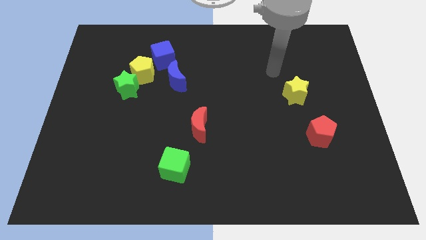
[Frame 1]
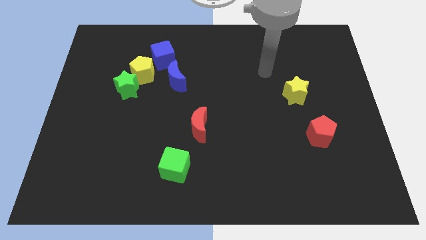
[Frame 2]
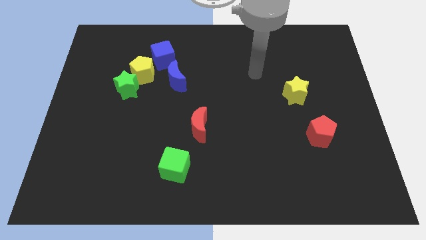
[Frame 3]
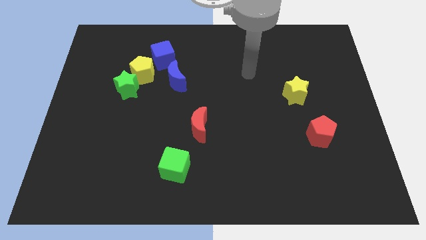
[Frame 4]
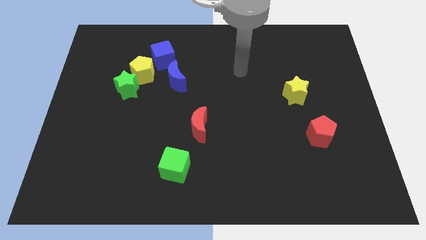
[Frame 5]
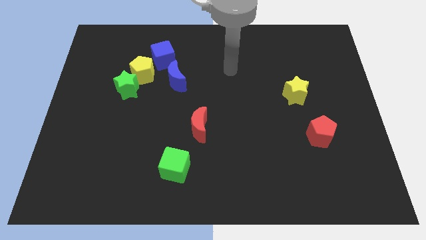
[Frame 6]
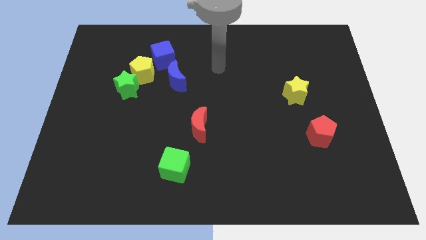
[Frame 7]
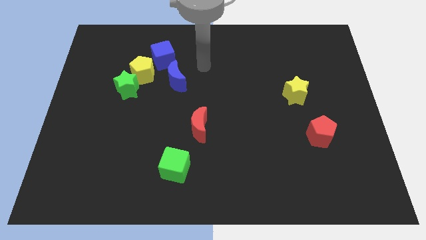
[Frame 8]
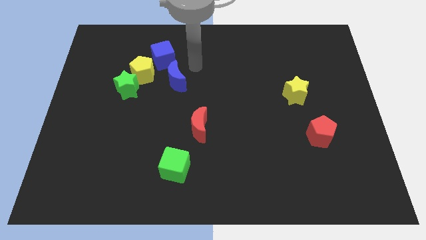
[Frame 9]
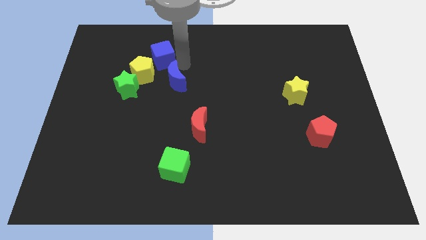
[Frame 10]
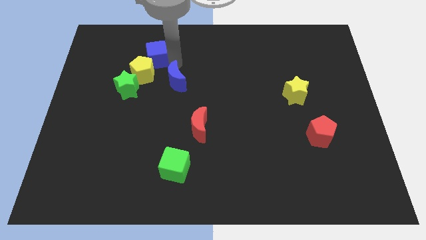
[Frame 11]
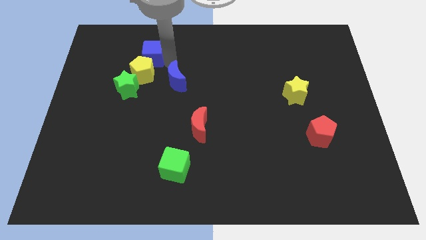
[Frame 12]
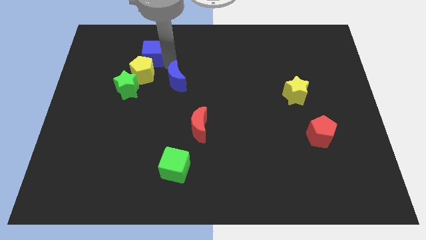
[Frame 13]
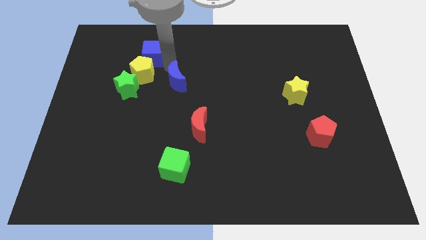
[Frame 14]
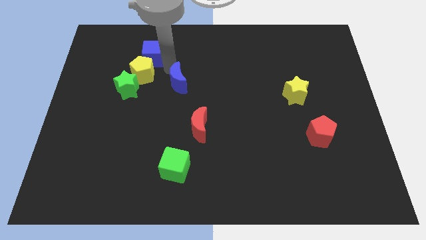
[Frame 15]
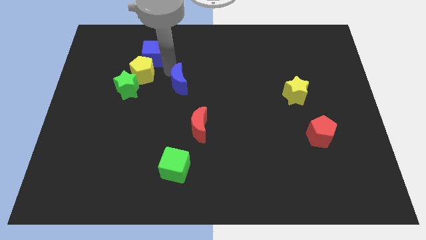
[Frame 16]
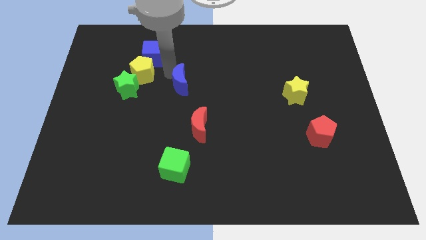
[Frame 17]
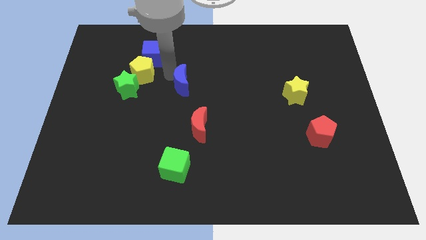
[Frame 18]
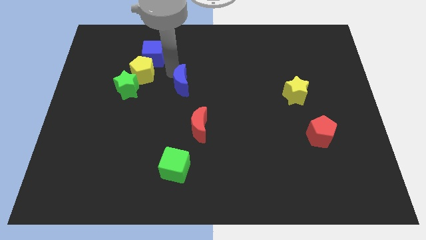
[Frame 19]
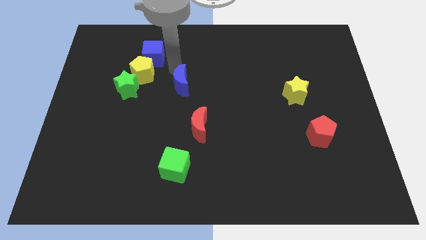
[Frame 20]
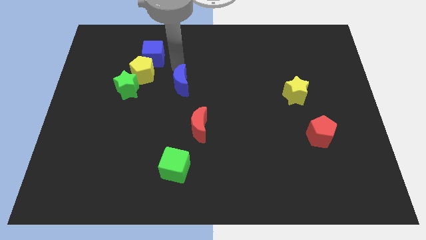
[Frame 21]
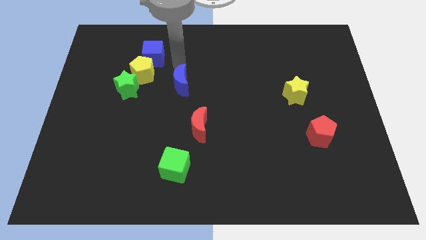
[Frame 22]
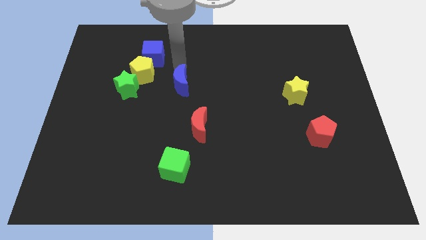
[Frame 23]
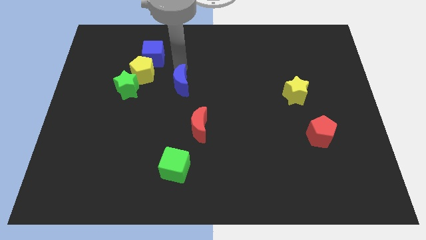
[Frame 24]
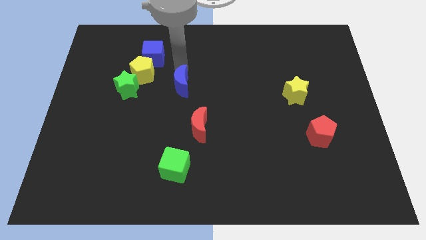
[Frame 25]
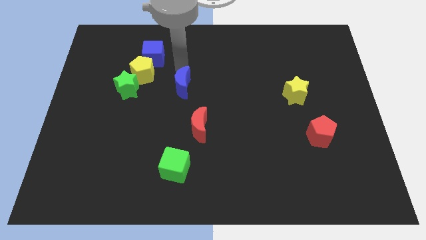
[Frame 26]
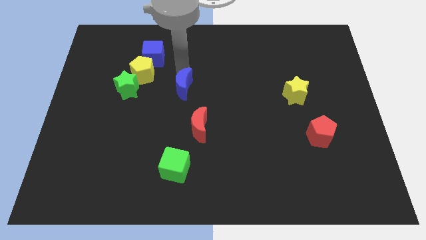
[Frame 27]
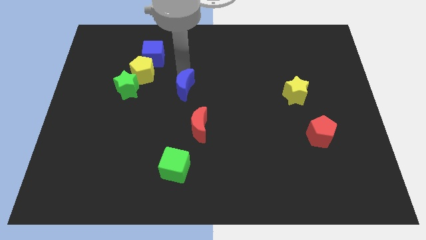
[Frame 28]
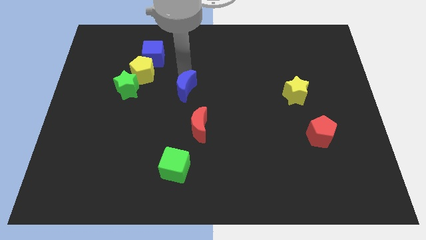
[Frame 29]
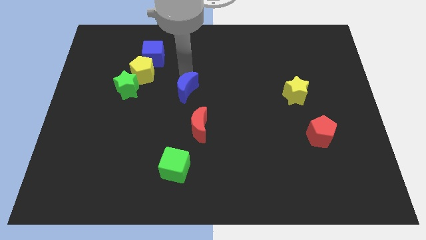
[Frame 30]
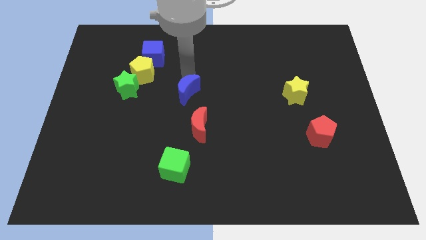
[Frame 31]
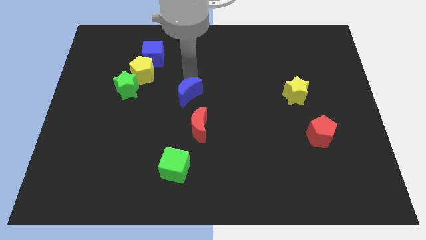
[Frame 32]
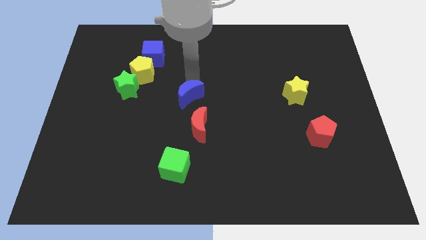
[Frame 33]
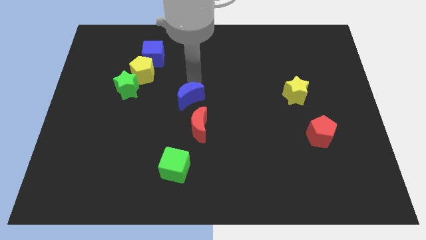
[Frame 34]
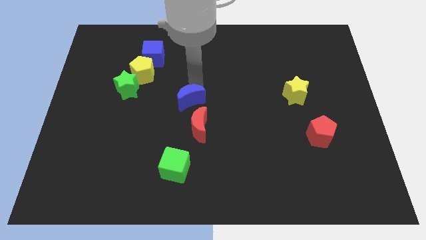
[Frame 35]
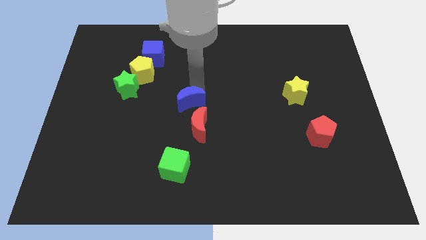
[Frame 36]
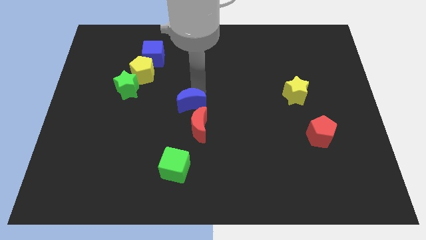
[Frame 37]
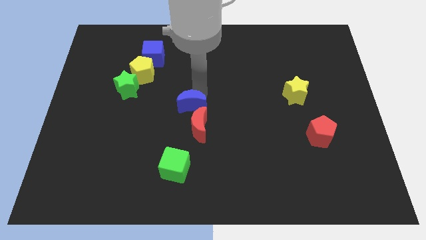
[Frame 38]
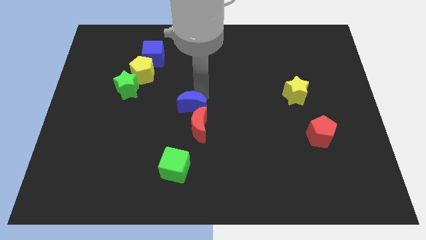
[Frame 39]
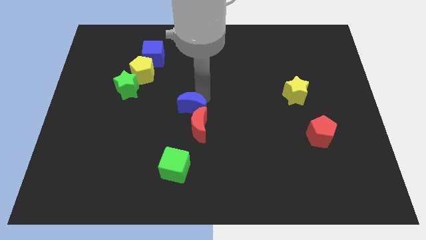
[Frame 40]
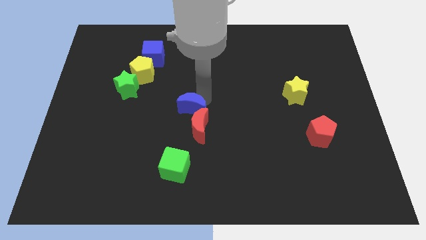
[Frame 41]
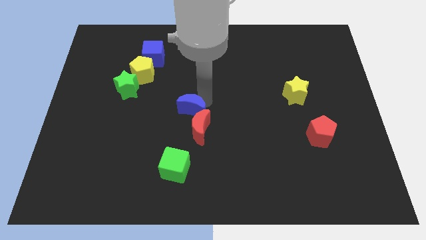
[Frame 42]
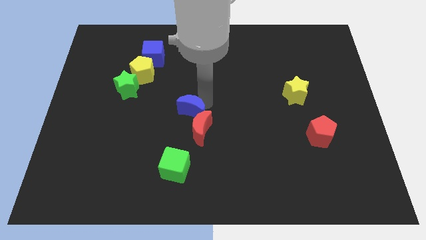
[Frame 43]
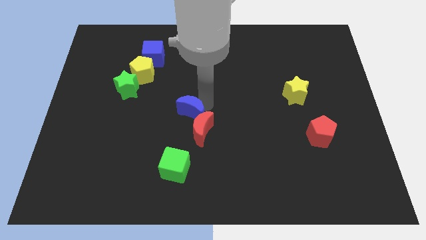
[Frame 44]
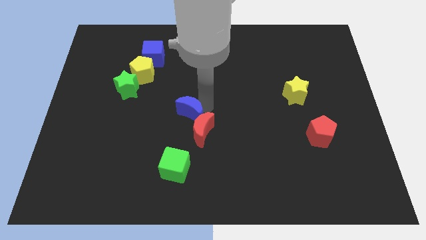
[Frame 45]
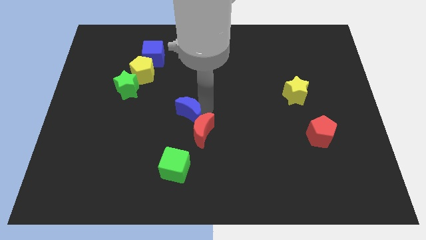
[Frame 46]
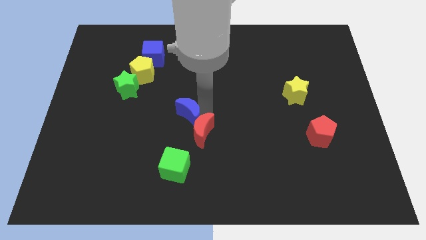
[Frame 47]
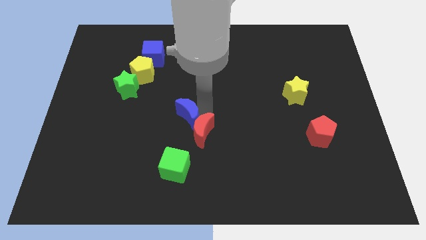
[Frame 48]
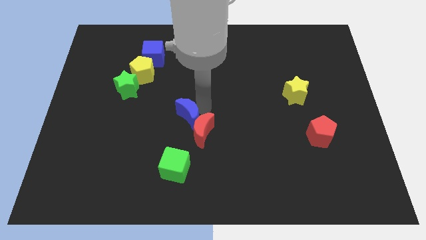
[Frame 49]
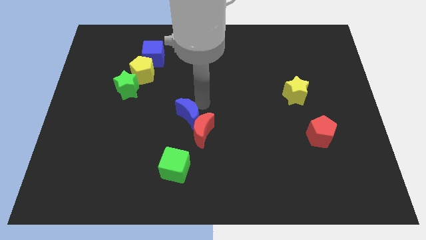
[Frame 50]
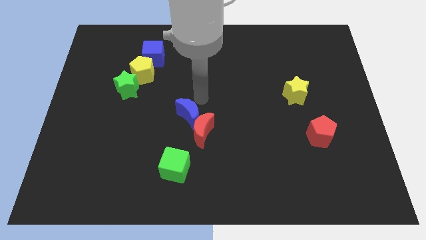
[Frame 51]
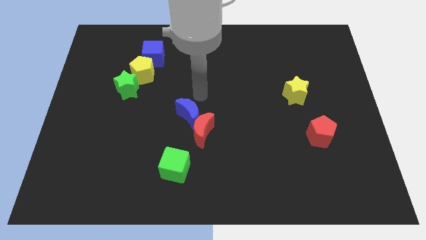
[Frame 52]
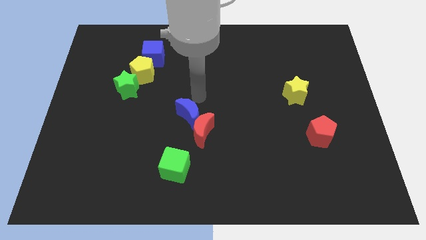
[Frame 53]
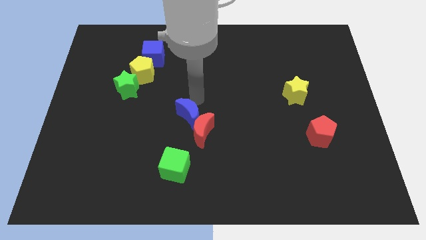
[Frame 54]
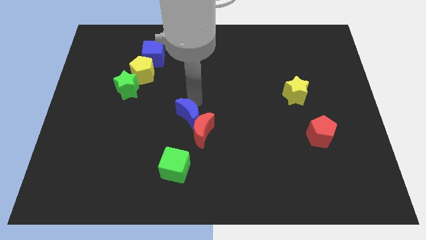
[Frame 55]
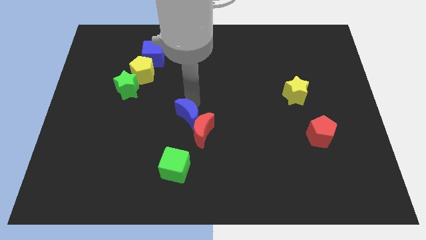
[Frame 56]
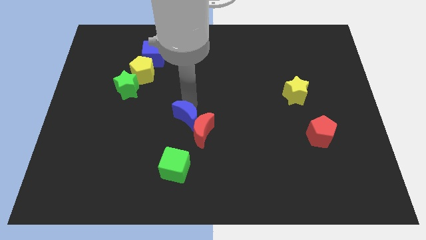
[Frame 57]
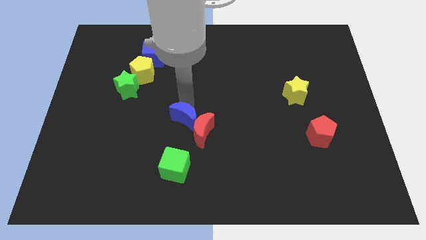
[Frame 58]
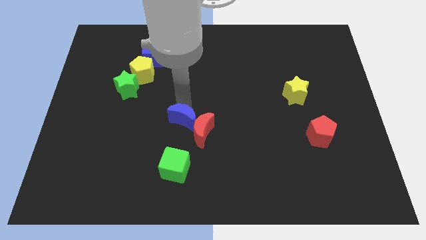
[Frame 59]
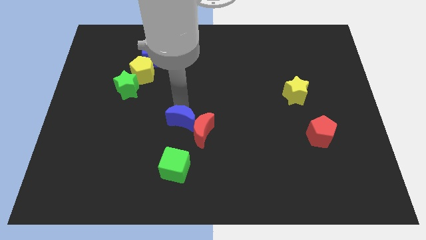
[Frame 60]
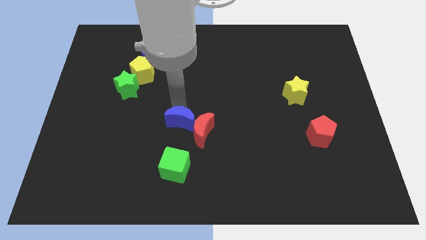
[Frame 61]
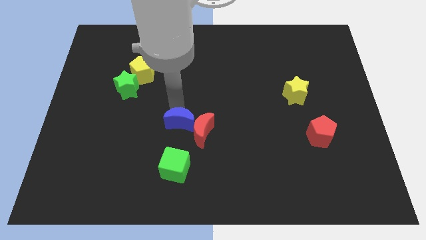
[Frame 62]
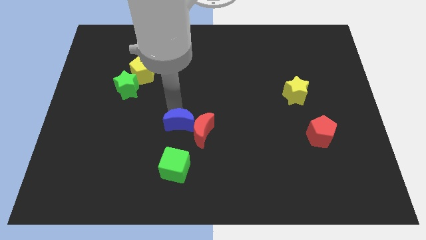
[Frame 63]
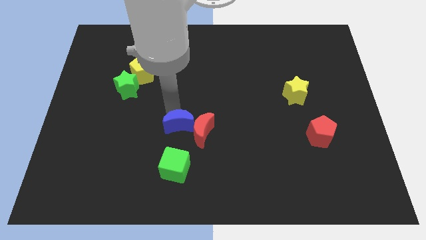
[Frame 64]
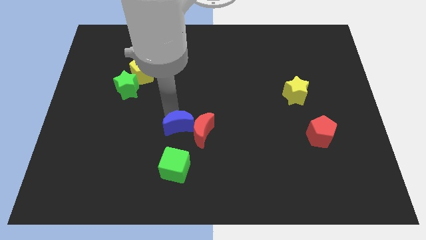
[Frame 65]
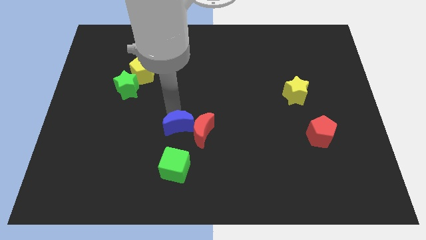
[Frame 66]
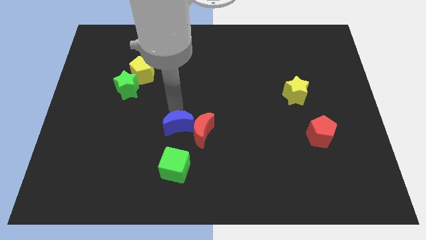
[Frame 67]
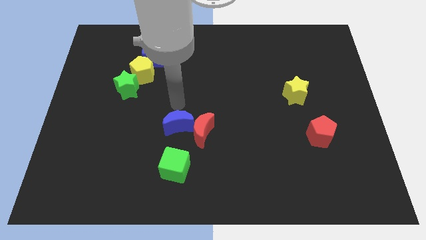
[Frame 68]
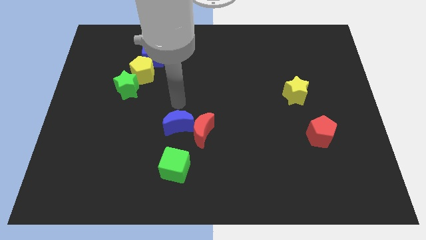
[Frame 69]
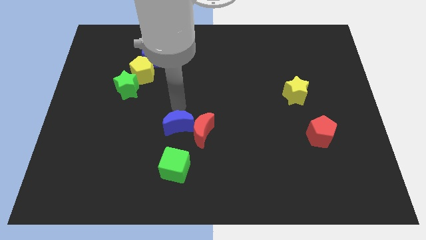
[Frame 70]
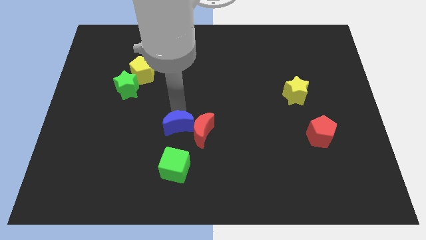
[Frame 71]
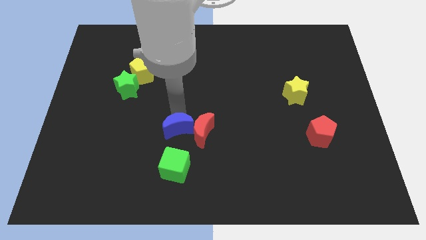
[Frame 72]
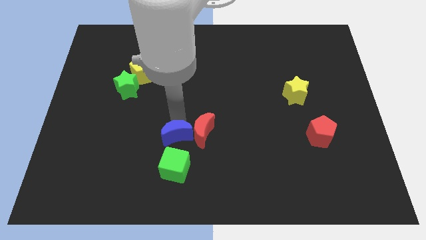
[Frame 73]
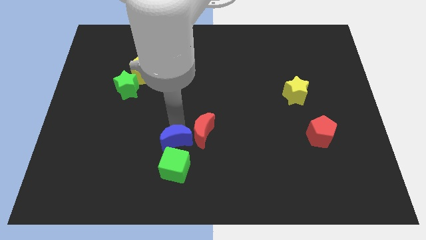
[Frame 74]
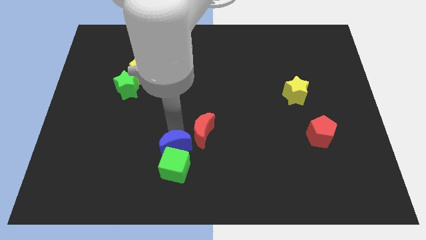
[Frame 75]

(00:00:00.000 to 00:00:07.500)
put the blue moon next to the green cube
